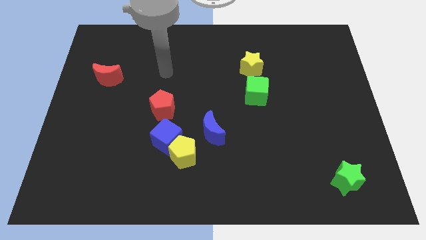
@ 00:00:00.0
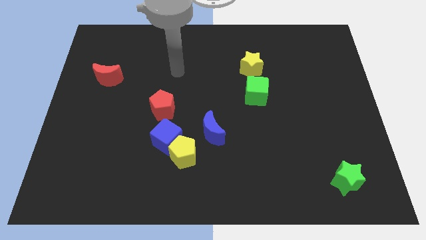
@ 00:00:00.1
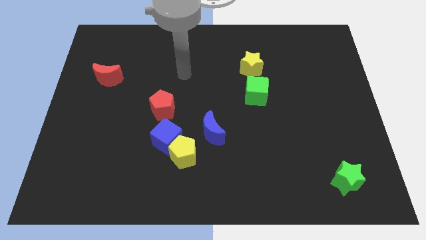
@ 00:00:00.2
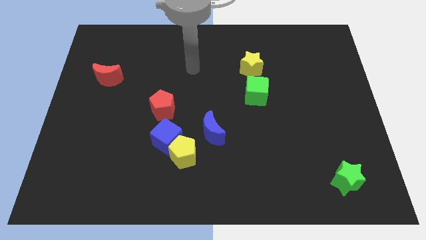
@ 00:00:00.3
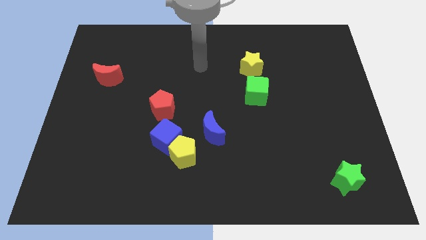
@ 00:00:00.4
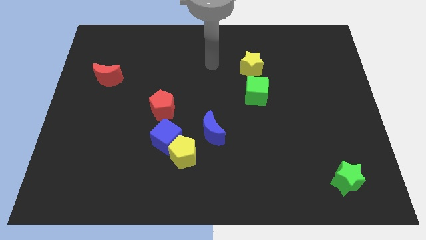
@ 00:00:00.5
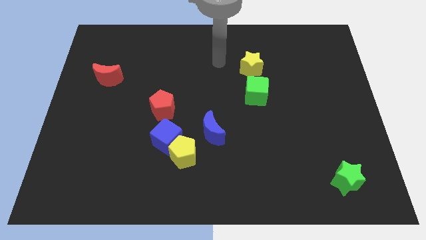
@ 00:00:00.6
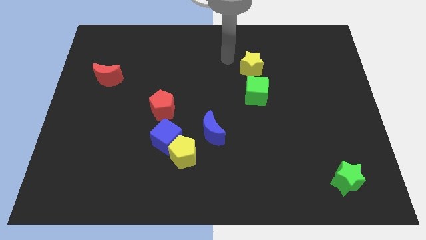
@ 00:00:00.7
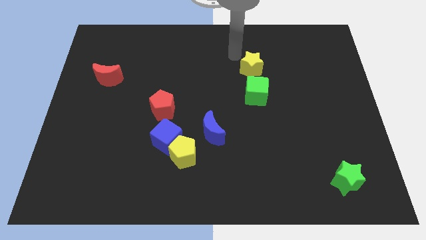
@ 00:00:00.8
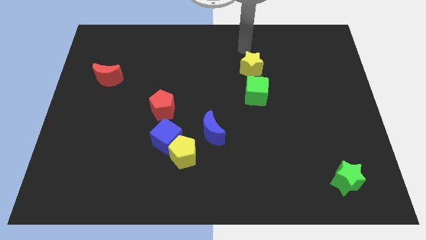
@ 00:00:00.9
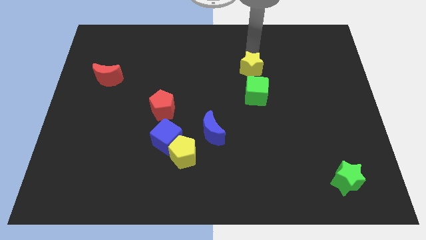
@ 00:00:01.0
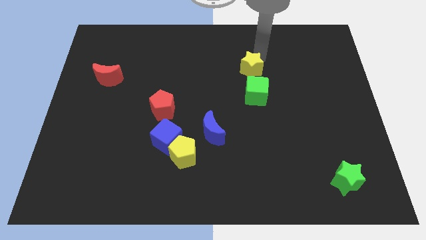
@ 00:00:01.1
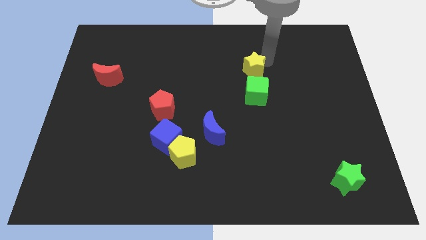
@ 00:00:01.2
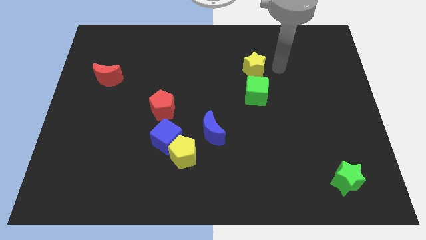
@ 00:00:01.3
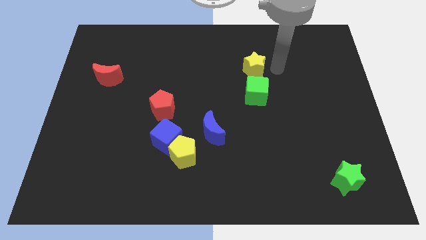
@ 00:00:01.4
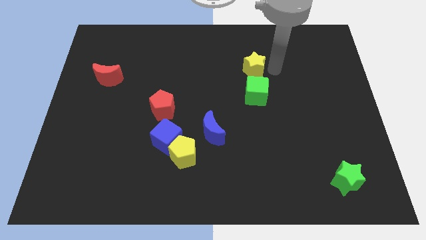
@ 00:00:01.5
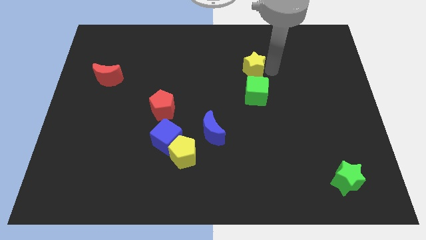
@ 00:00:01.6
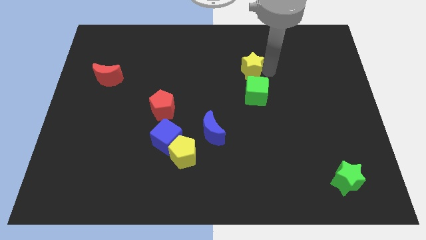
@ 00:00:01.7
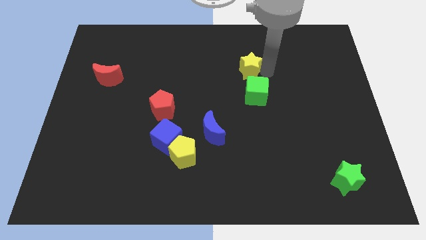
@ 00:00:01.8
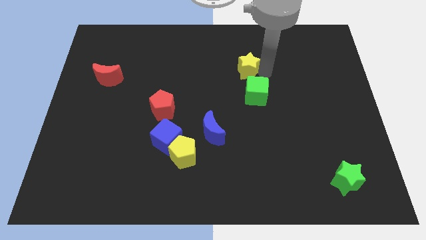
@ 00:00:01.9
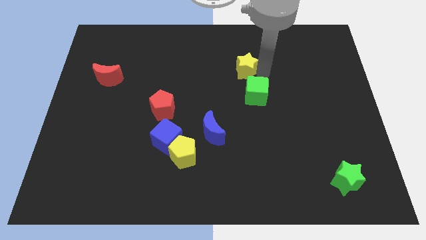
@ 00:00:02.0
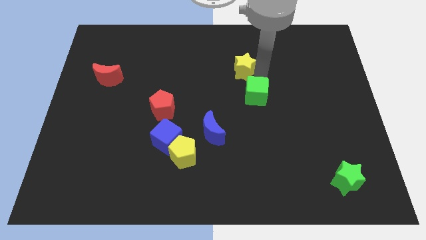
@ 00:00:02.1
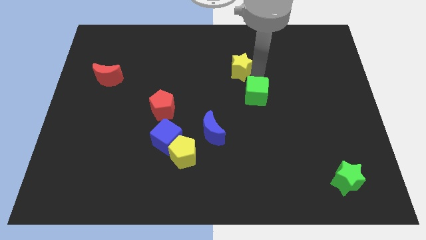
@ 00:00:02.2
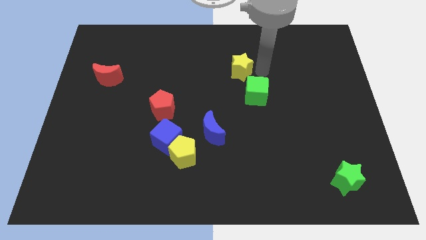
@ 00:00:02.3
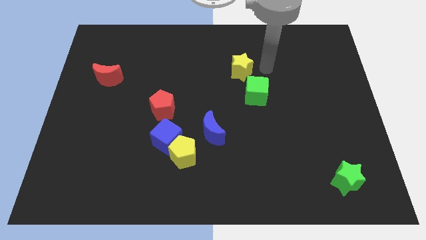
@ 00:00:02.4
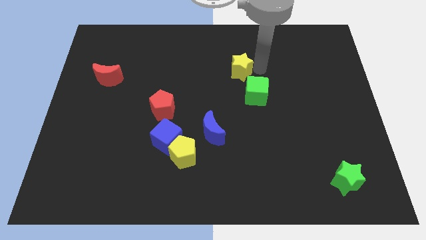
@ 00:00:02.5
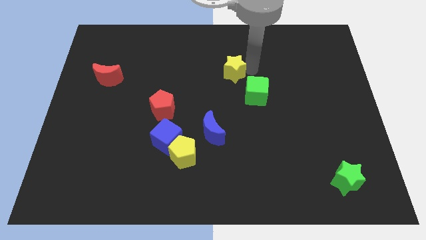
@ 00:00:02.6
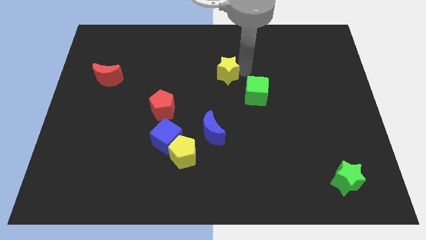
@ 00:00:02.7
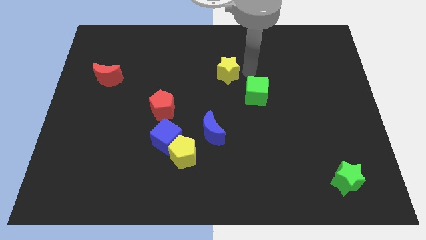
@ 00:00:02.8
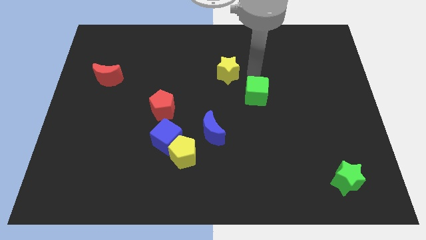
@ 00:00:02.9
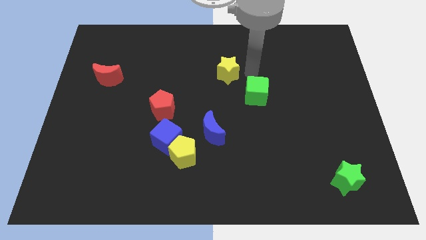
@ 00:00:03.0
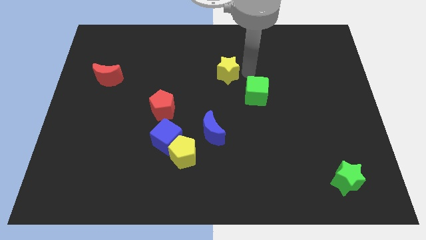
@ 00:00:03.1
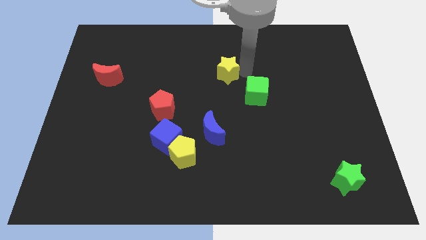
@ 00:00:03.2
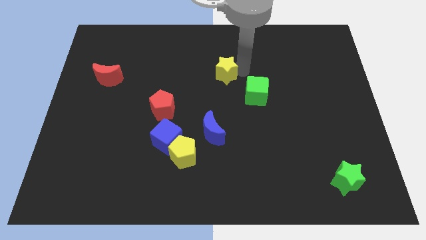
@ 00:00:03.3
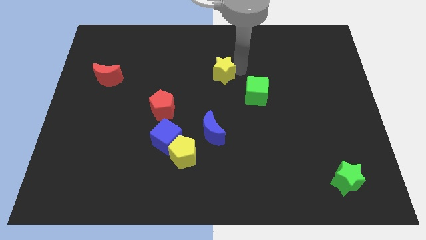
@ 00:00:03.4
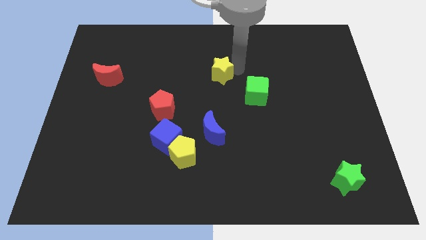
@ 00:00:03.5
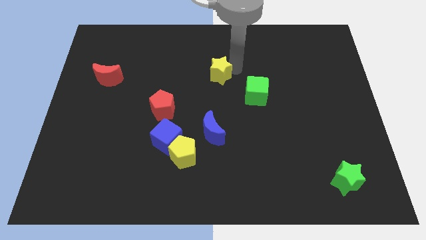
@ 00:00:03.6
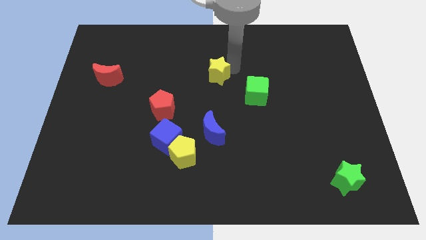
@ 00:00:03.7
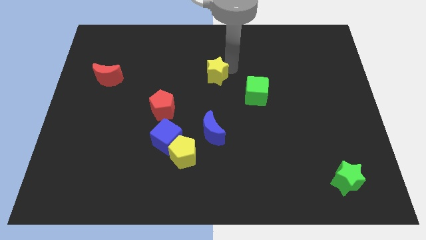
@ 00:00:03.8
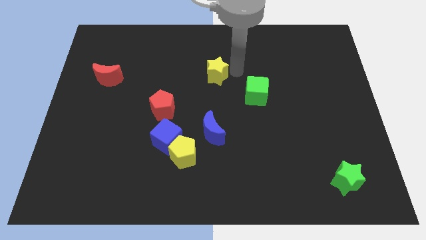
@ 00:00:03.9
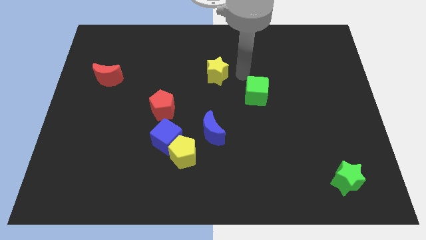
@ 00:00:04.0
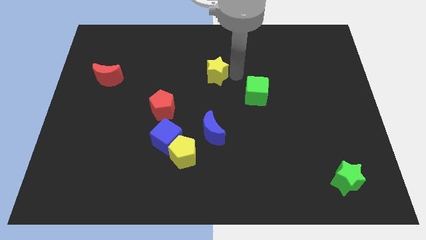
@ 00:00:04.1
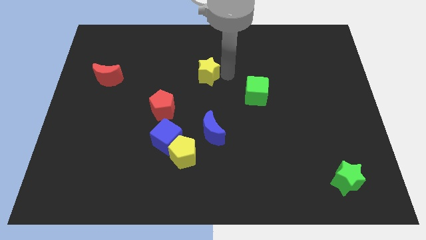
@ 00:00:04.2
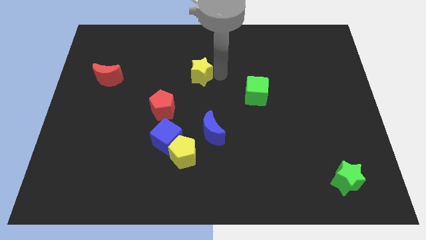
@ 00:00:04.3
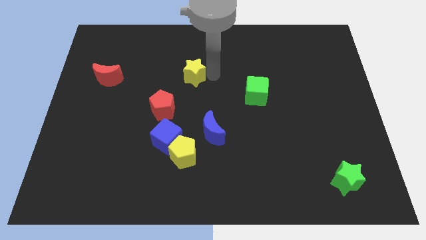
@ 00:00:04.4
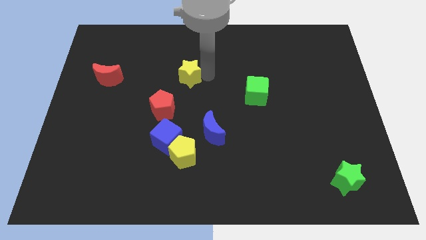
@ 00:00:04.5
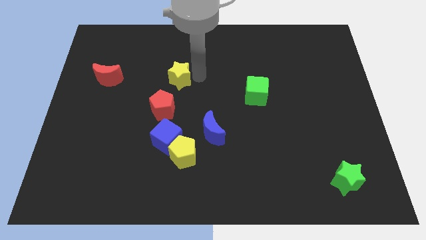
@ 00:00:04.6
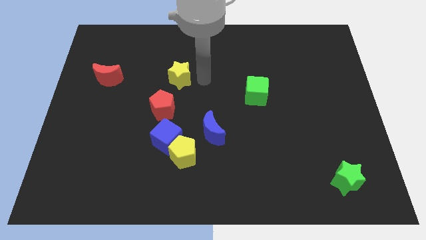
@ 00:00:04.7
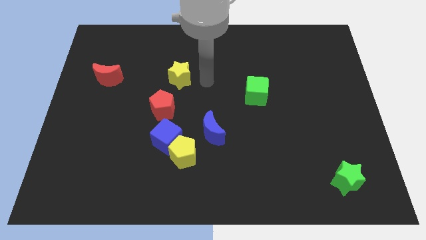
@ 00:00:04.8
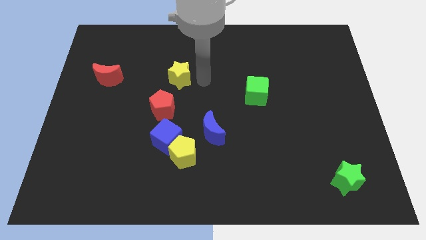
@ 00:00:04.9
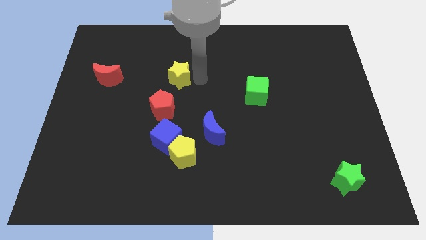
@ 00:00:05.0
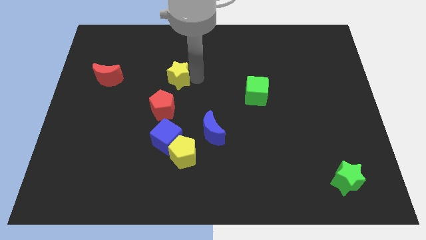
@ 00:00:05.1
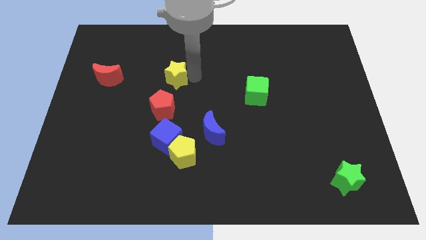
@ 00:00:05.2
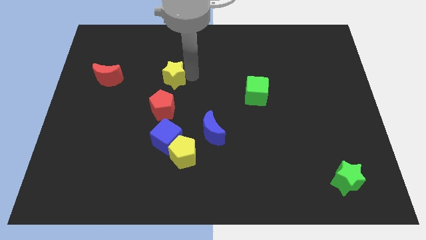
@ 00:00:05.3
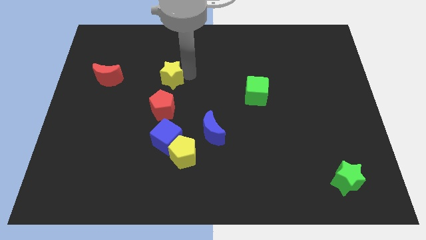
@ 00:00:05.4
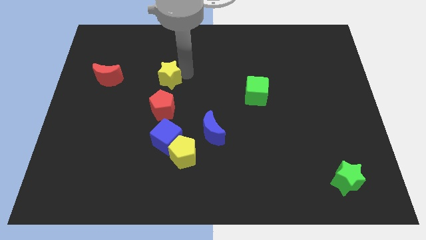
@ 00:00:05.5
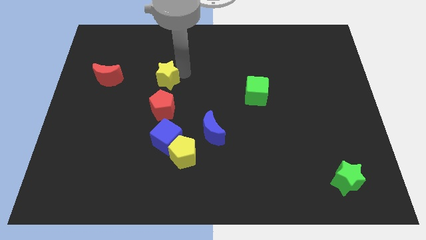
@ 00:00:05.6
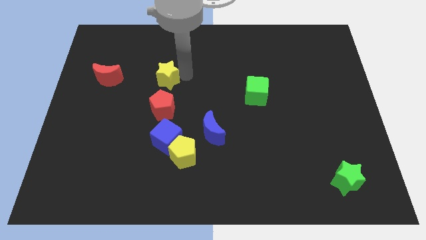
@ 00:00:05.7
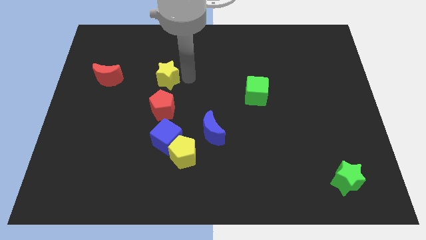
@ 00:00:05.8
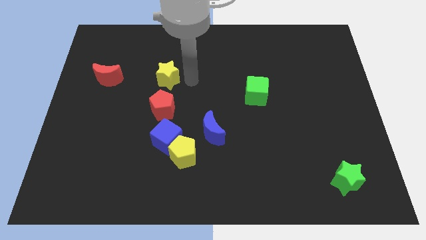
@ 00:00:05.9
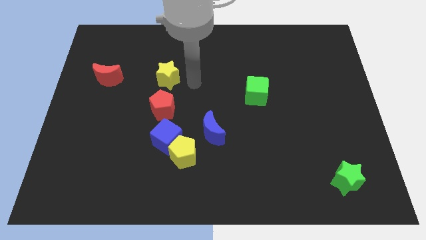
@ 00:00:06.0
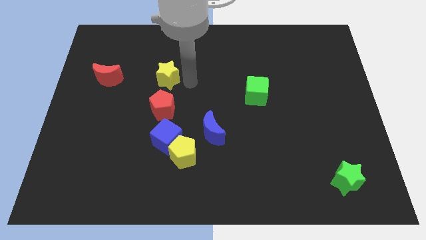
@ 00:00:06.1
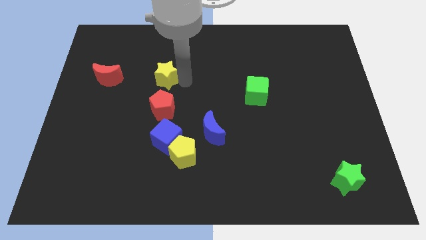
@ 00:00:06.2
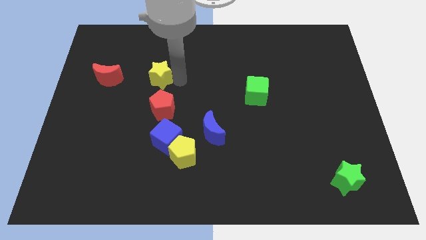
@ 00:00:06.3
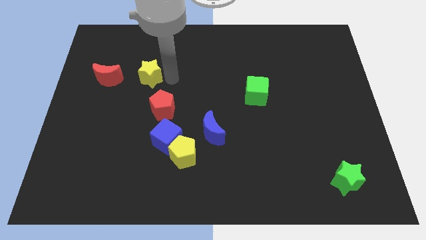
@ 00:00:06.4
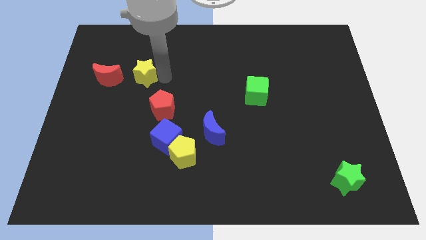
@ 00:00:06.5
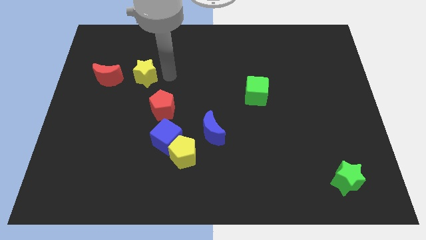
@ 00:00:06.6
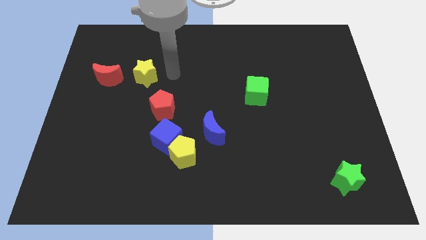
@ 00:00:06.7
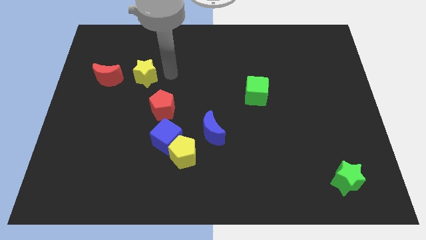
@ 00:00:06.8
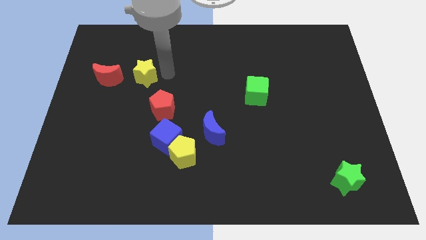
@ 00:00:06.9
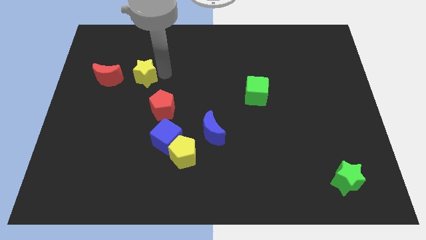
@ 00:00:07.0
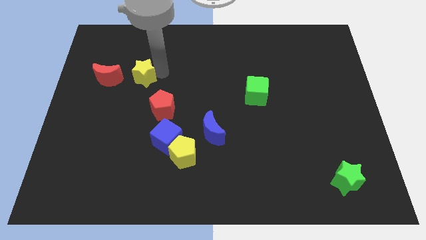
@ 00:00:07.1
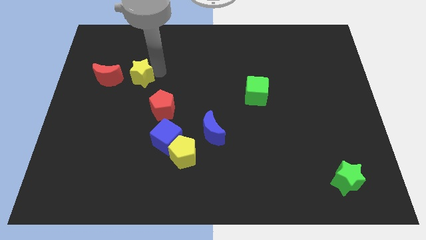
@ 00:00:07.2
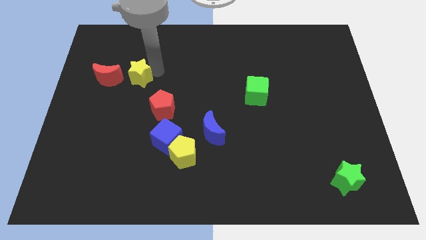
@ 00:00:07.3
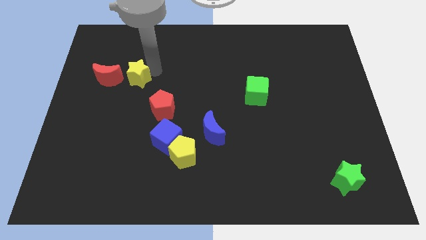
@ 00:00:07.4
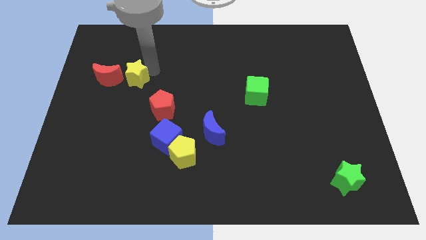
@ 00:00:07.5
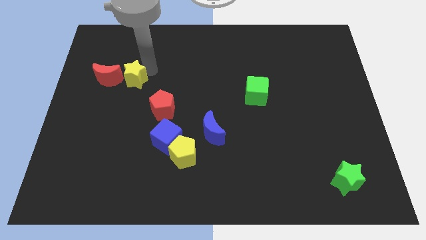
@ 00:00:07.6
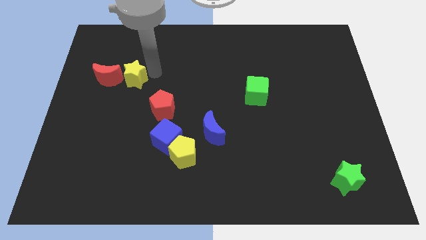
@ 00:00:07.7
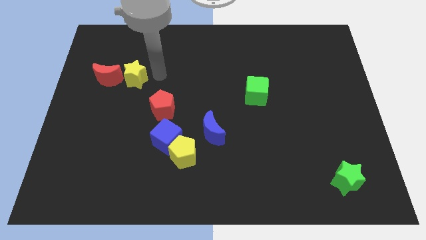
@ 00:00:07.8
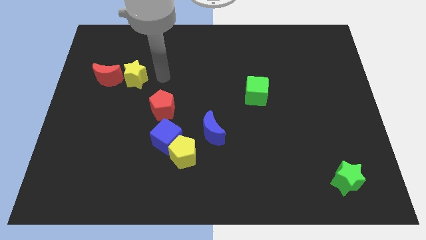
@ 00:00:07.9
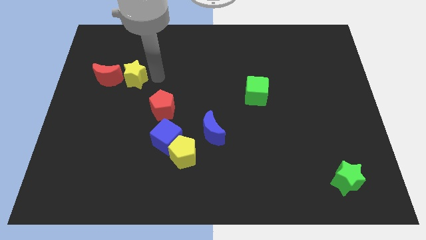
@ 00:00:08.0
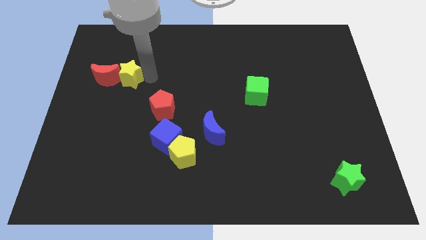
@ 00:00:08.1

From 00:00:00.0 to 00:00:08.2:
move the yellow star close to the red moon
